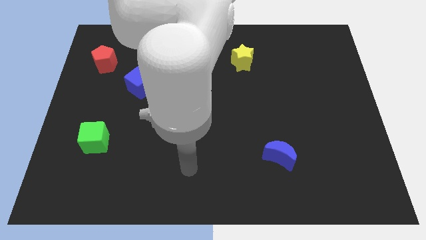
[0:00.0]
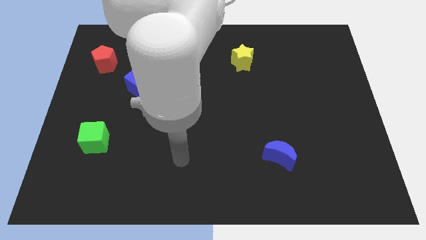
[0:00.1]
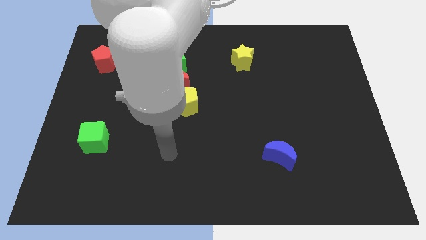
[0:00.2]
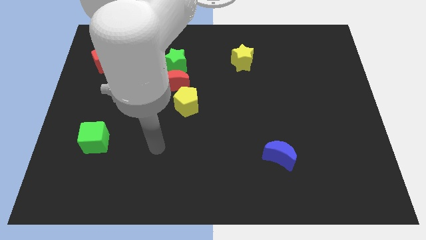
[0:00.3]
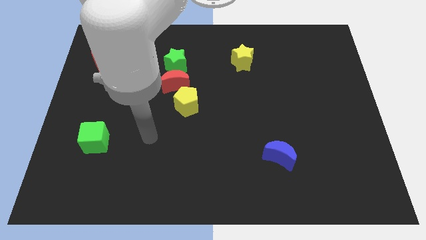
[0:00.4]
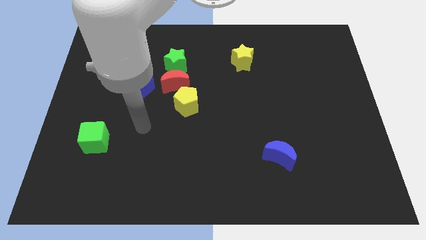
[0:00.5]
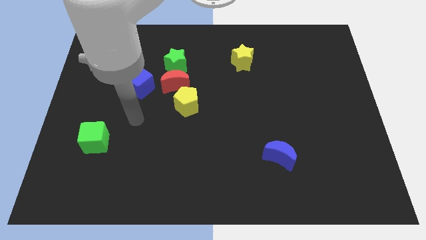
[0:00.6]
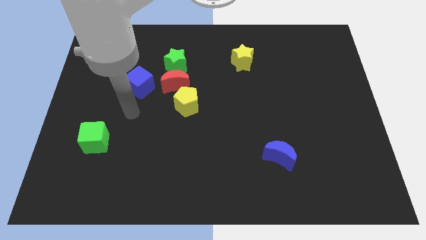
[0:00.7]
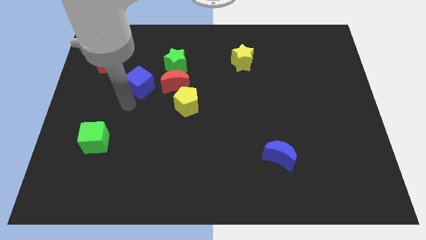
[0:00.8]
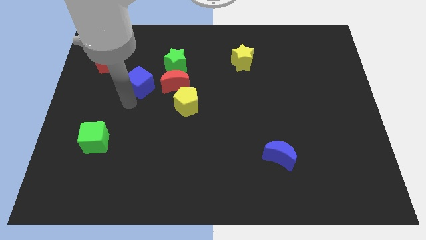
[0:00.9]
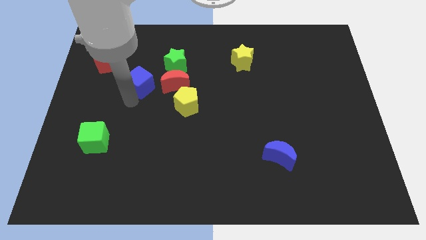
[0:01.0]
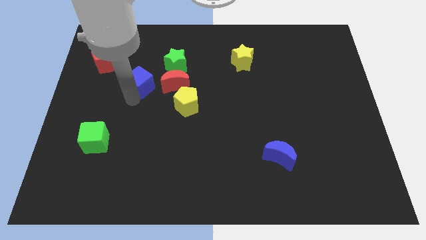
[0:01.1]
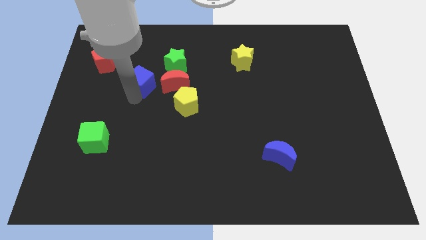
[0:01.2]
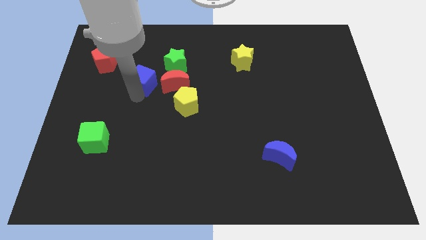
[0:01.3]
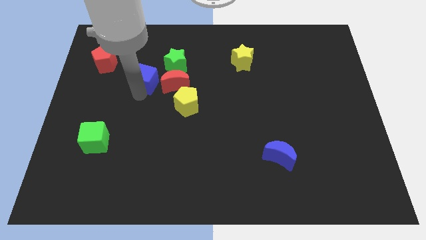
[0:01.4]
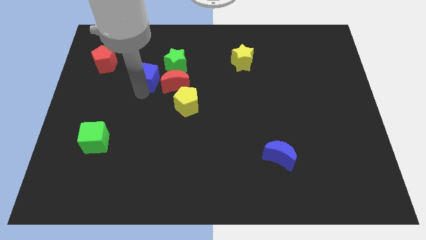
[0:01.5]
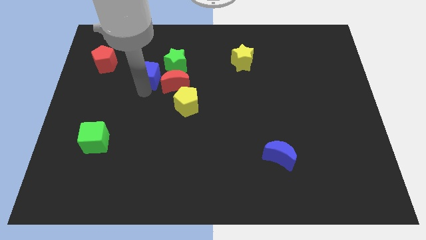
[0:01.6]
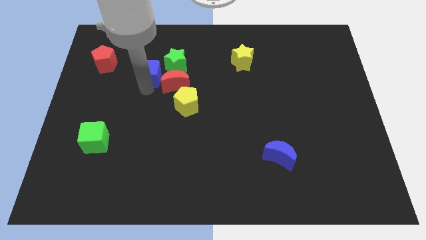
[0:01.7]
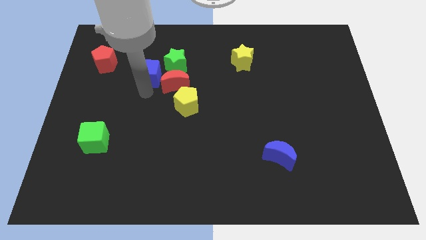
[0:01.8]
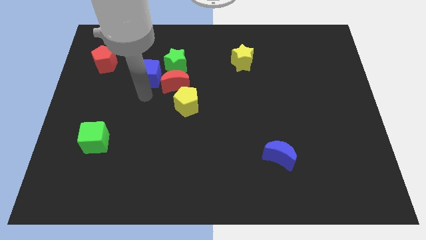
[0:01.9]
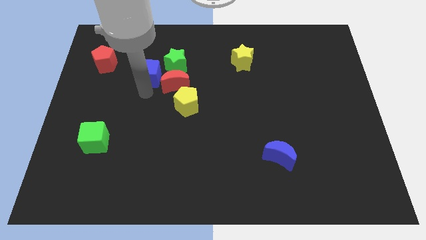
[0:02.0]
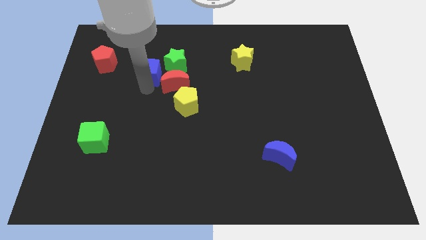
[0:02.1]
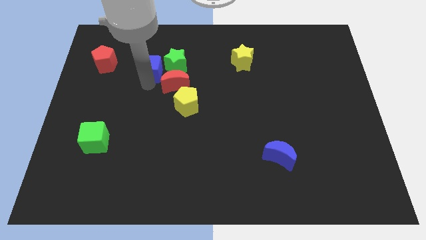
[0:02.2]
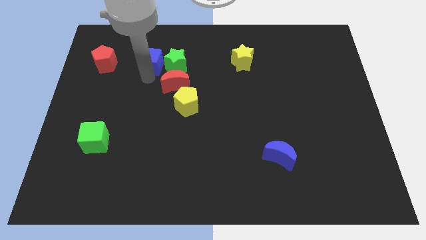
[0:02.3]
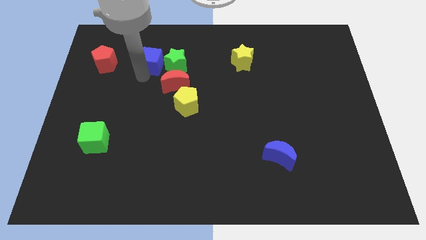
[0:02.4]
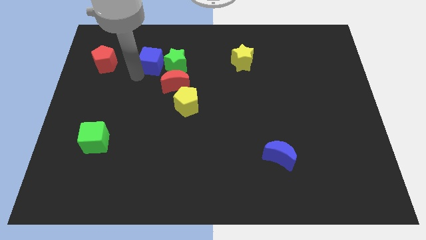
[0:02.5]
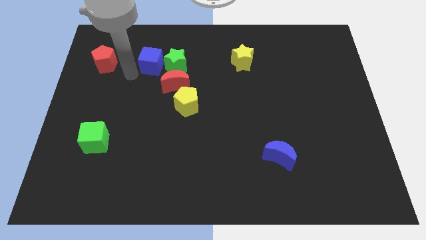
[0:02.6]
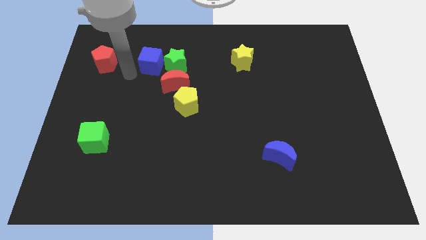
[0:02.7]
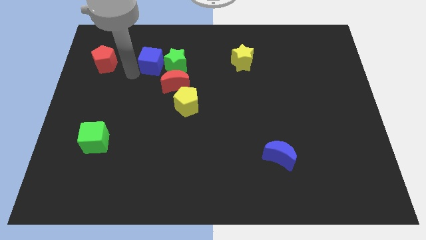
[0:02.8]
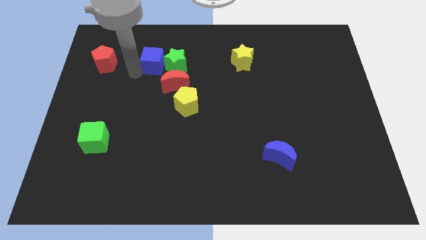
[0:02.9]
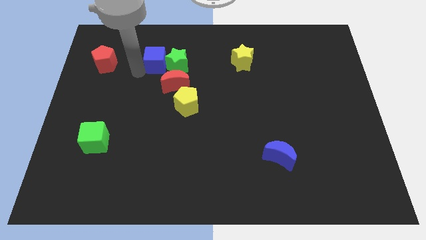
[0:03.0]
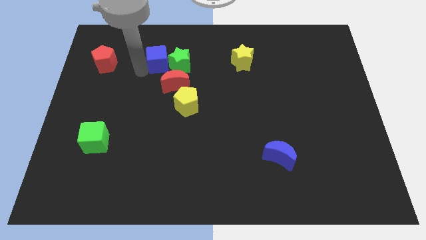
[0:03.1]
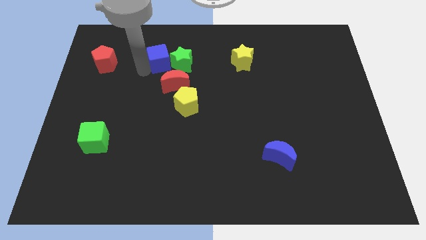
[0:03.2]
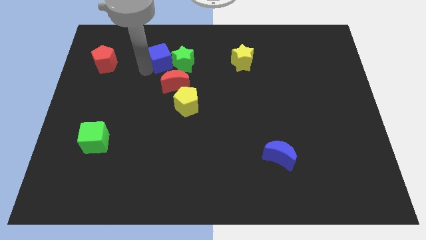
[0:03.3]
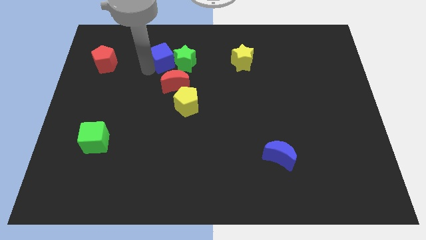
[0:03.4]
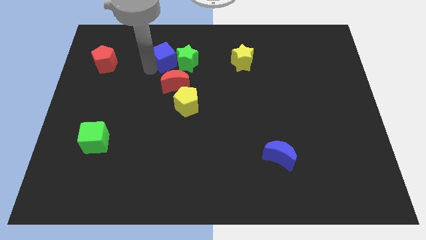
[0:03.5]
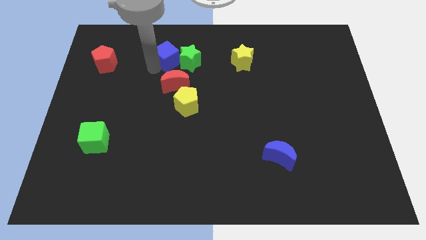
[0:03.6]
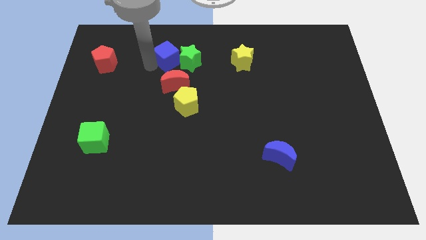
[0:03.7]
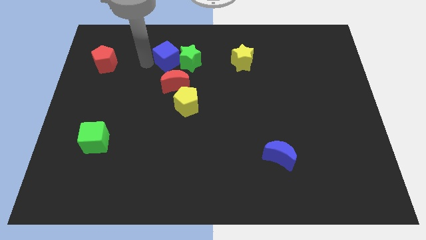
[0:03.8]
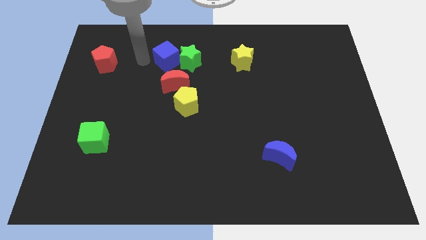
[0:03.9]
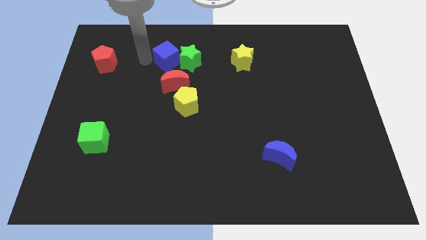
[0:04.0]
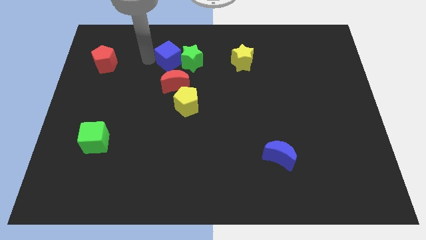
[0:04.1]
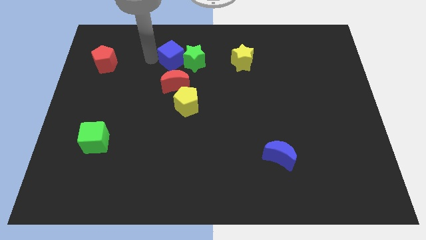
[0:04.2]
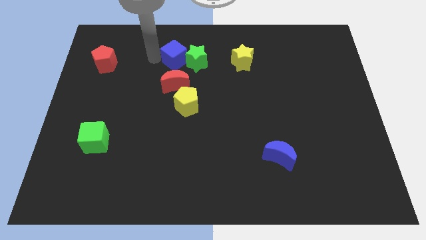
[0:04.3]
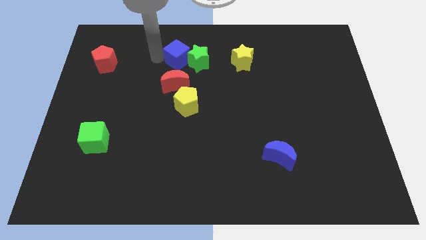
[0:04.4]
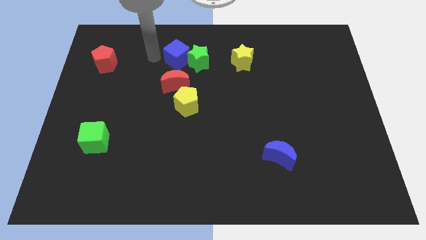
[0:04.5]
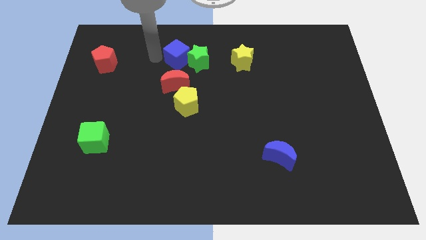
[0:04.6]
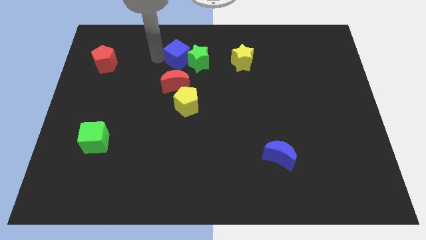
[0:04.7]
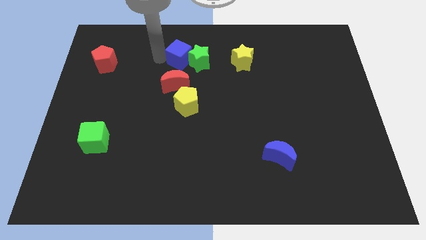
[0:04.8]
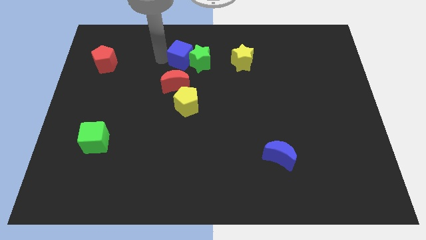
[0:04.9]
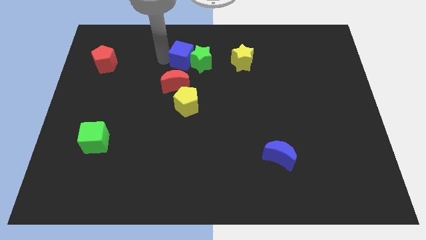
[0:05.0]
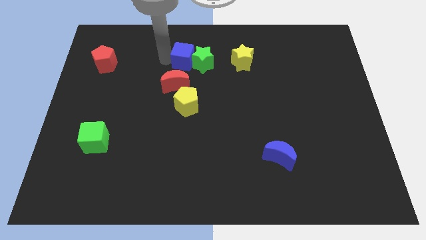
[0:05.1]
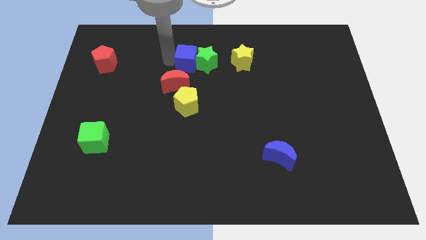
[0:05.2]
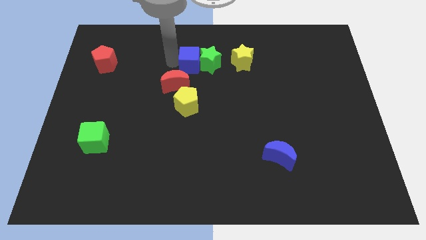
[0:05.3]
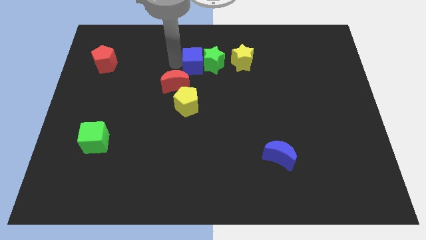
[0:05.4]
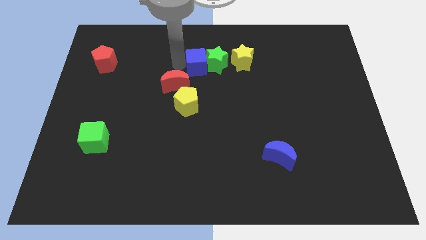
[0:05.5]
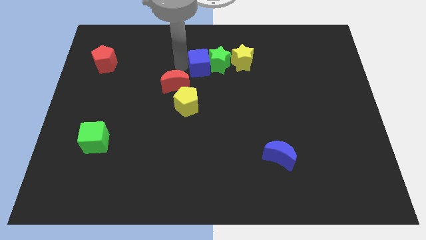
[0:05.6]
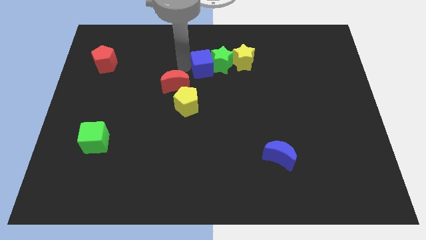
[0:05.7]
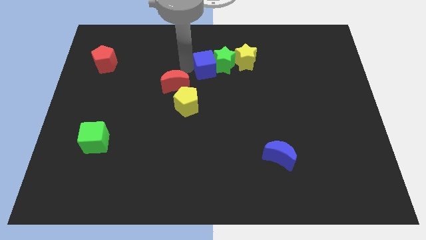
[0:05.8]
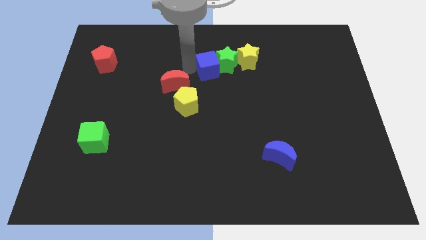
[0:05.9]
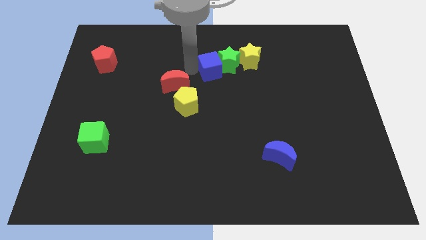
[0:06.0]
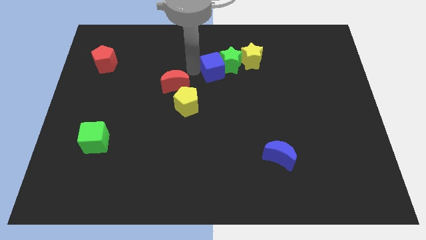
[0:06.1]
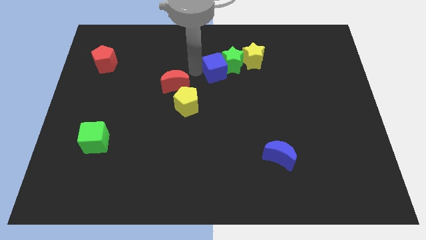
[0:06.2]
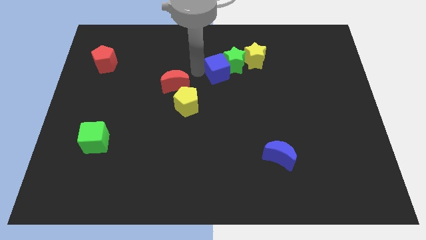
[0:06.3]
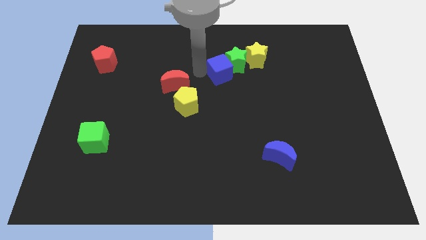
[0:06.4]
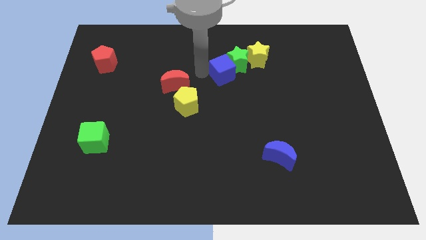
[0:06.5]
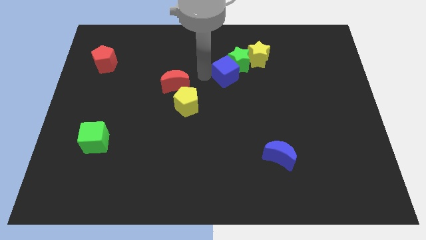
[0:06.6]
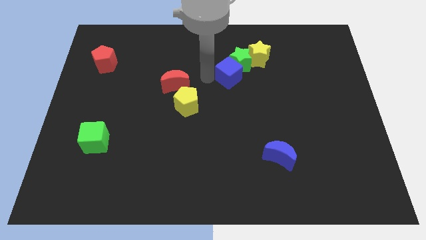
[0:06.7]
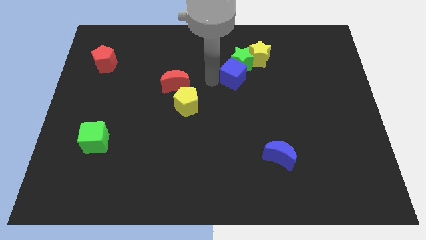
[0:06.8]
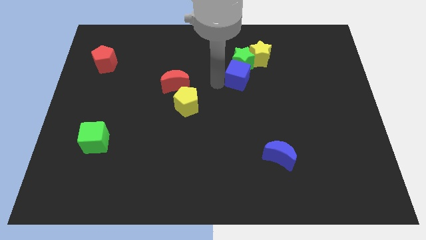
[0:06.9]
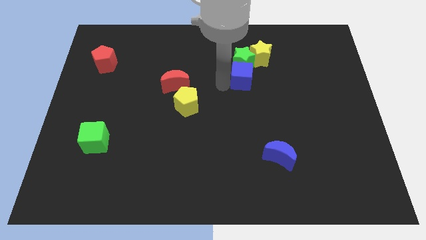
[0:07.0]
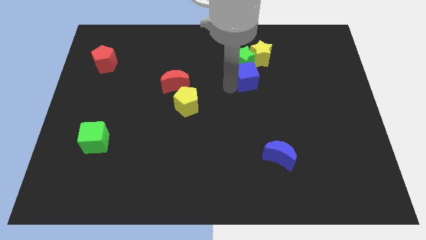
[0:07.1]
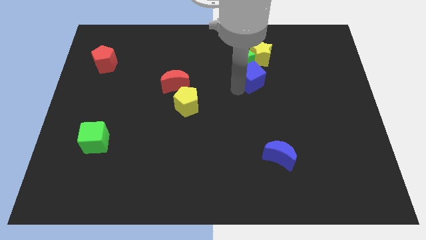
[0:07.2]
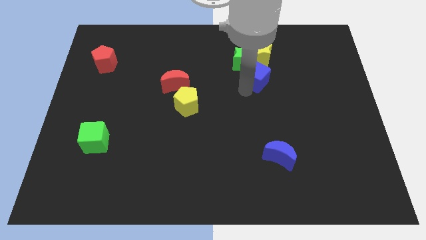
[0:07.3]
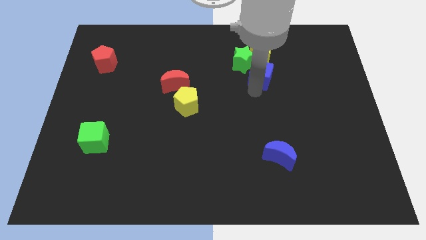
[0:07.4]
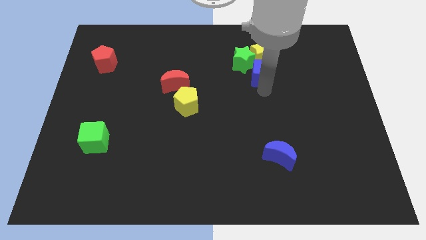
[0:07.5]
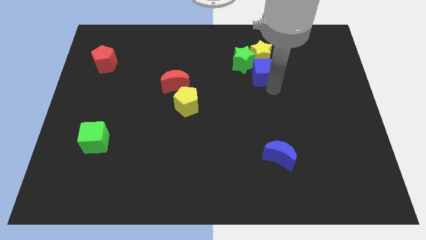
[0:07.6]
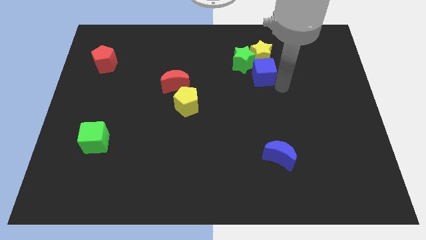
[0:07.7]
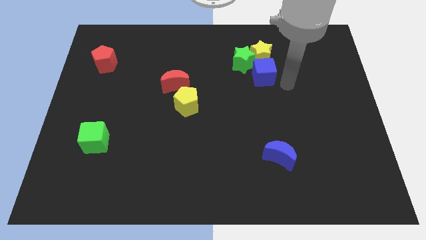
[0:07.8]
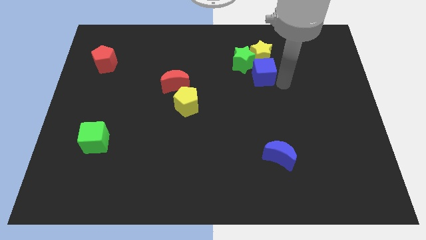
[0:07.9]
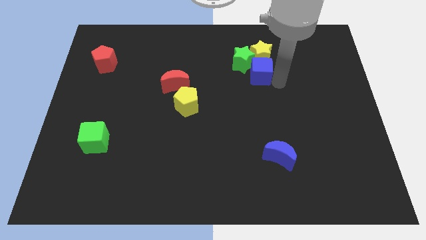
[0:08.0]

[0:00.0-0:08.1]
put the blue cube to the yellow star
